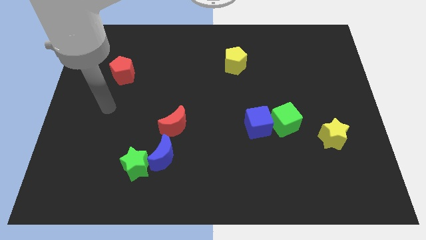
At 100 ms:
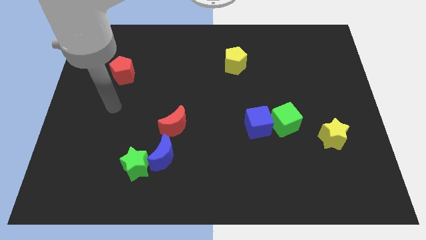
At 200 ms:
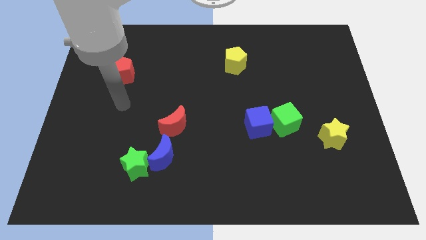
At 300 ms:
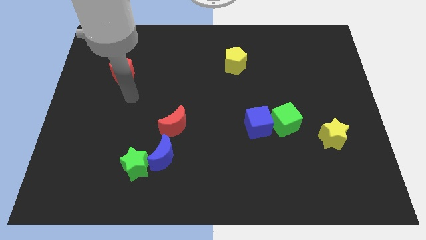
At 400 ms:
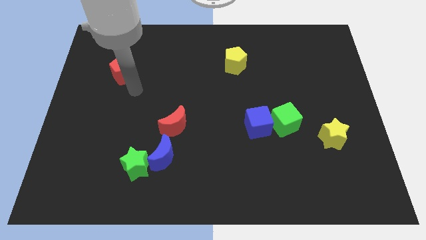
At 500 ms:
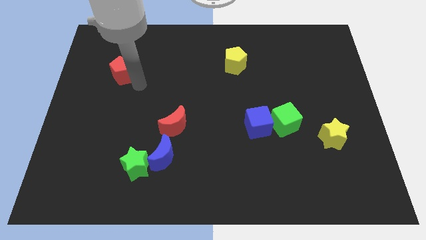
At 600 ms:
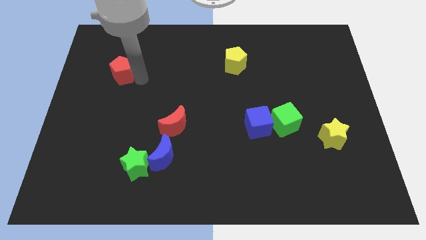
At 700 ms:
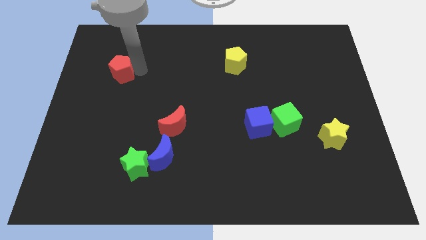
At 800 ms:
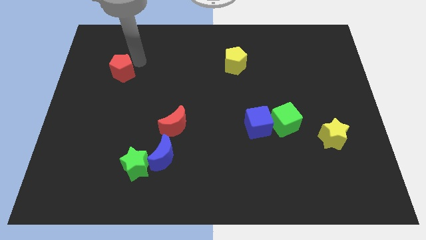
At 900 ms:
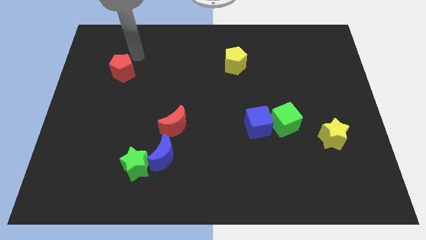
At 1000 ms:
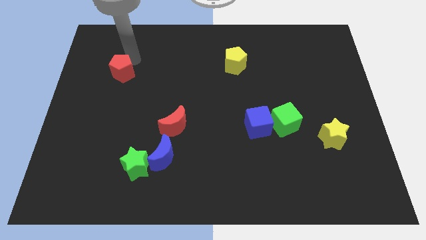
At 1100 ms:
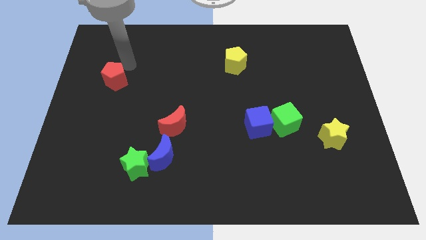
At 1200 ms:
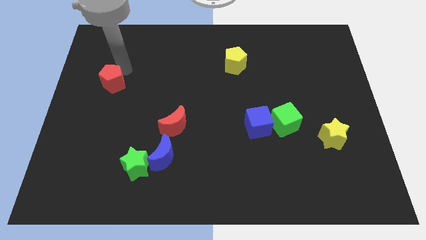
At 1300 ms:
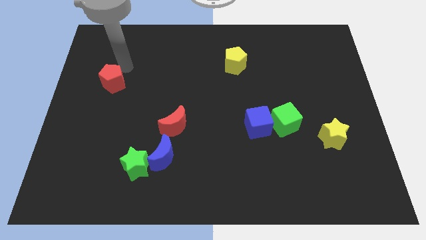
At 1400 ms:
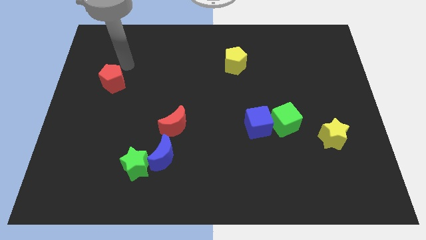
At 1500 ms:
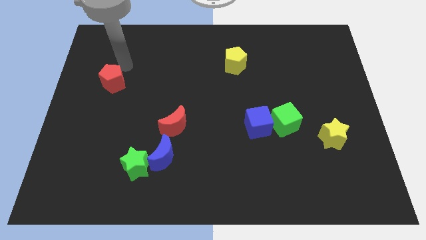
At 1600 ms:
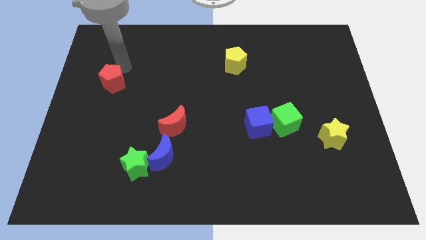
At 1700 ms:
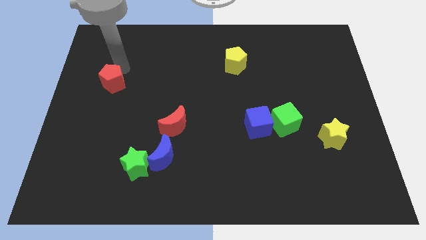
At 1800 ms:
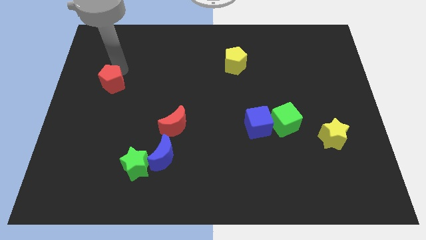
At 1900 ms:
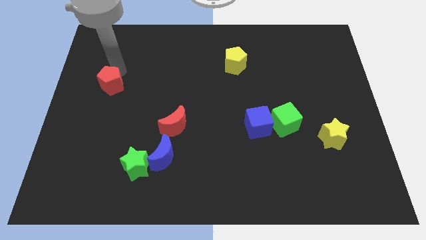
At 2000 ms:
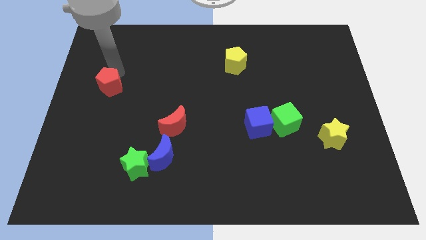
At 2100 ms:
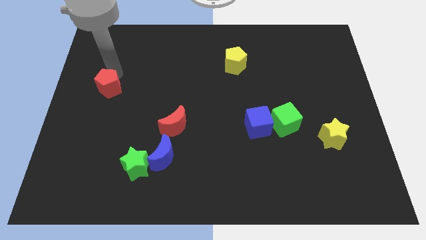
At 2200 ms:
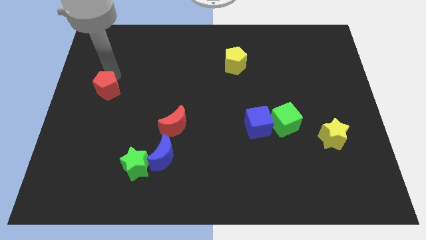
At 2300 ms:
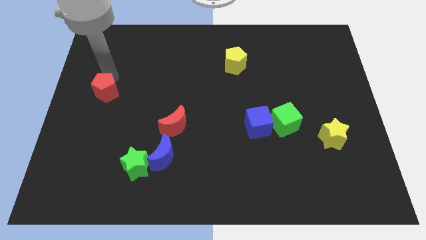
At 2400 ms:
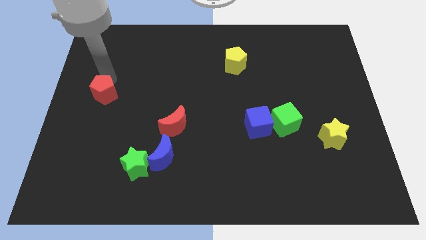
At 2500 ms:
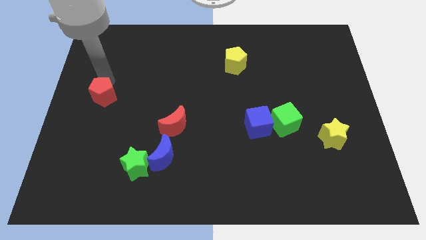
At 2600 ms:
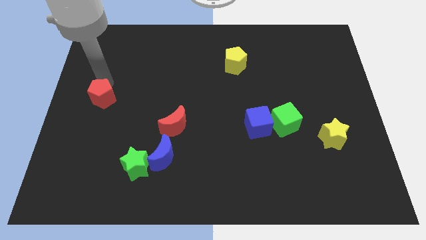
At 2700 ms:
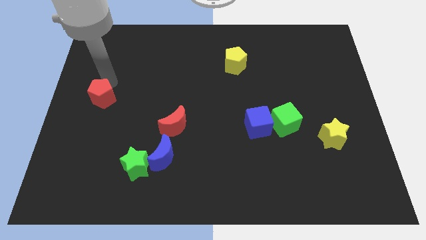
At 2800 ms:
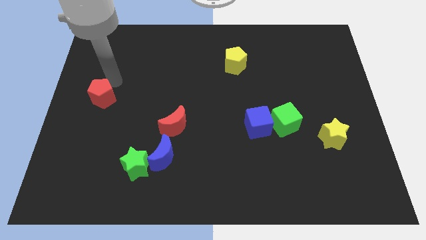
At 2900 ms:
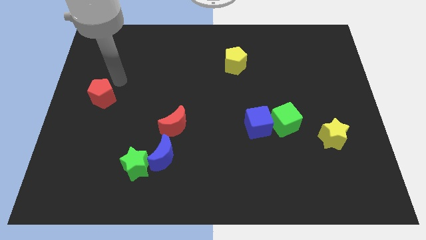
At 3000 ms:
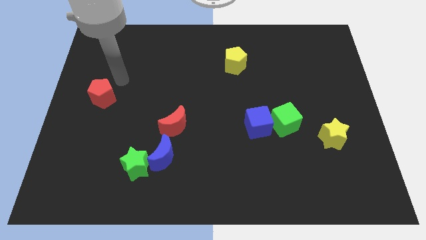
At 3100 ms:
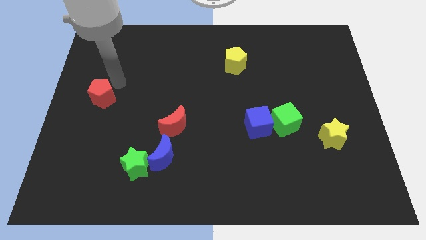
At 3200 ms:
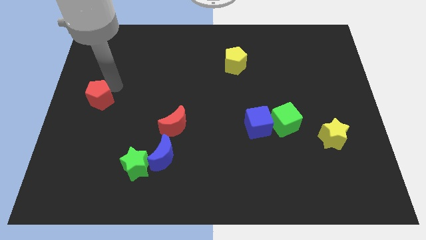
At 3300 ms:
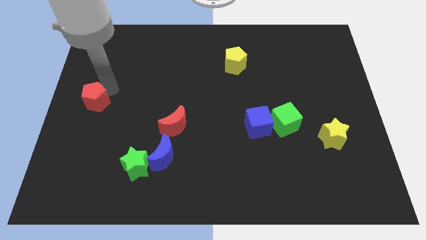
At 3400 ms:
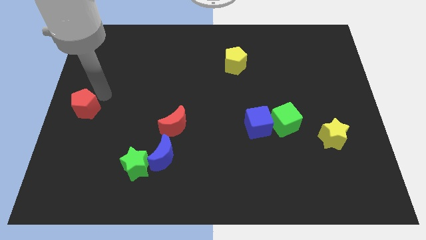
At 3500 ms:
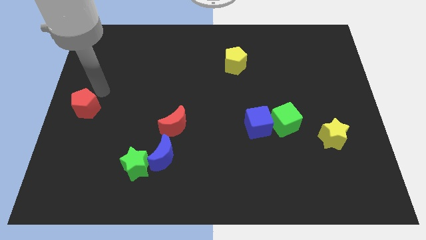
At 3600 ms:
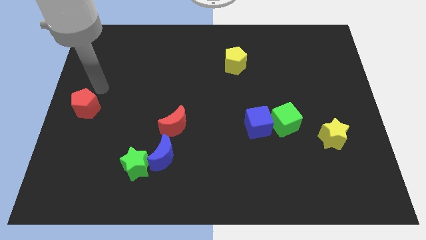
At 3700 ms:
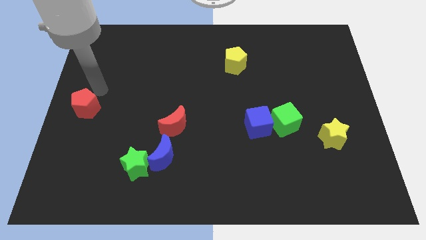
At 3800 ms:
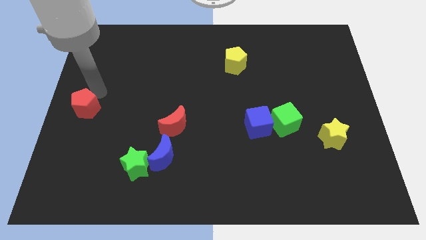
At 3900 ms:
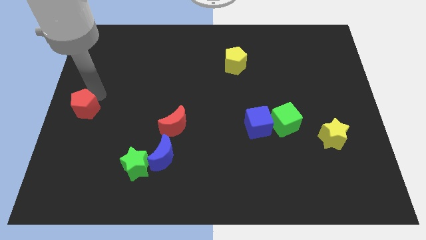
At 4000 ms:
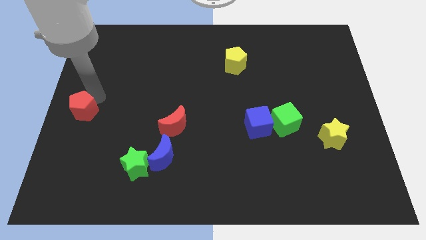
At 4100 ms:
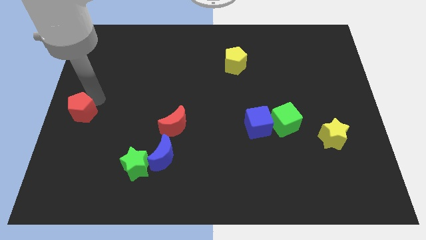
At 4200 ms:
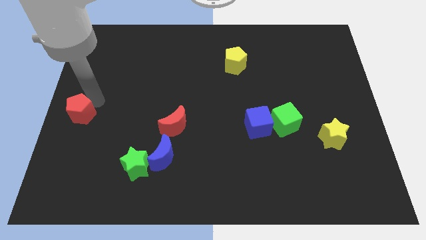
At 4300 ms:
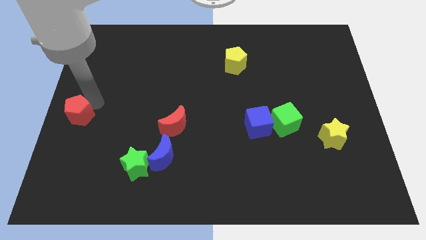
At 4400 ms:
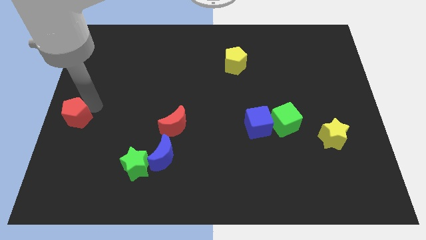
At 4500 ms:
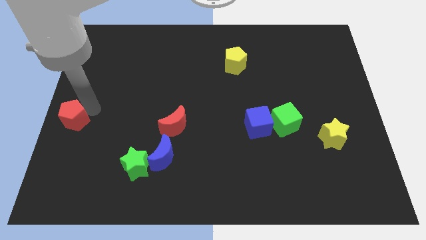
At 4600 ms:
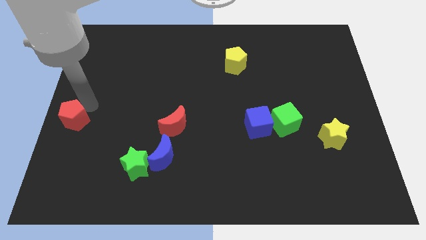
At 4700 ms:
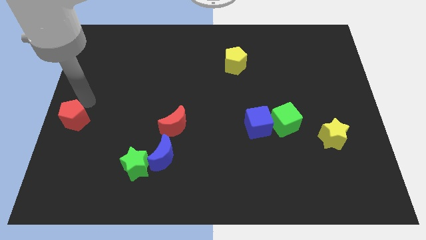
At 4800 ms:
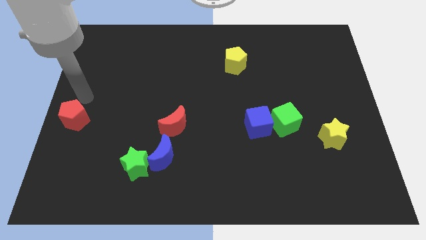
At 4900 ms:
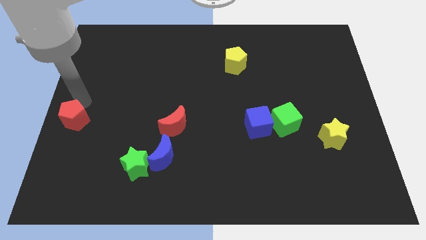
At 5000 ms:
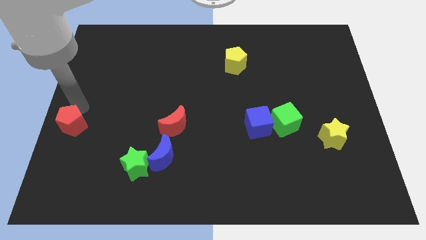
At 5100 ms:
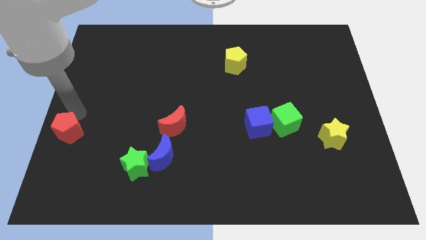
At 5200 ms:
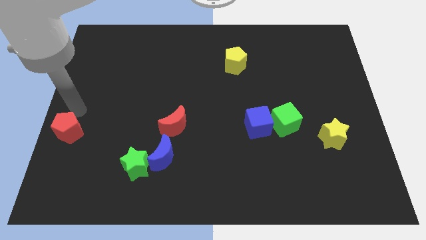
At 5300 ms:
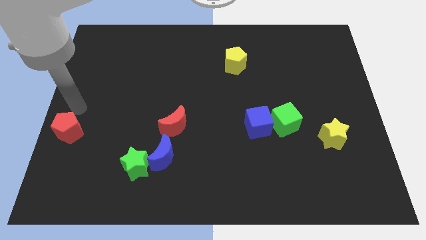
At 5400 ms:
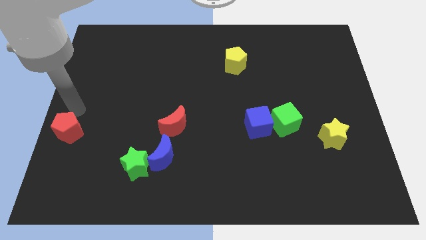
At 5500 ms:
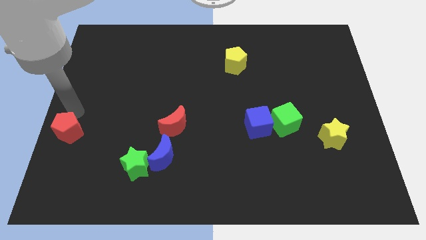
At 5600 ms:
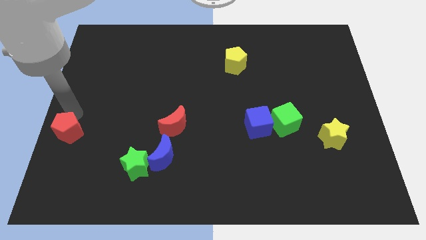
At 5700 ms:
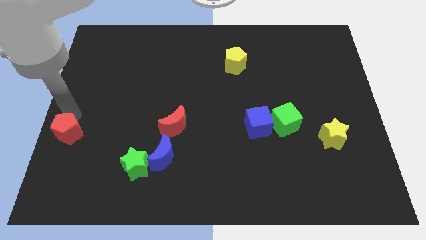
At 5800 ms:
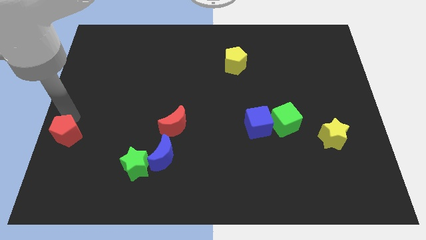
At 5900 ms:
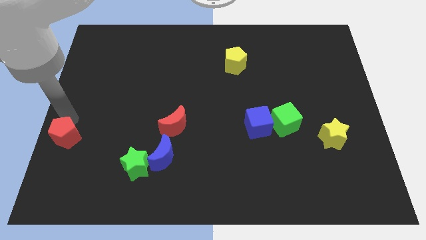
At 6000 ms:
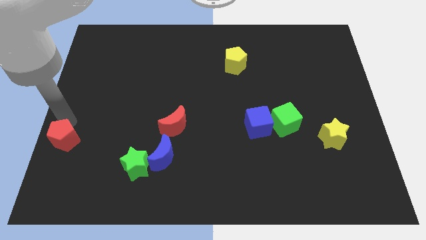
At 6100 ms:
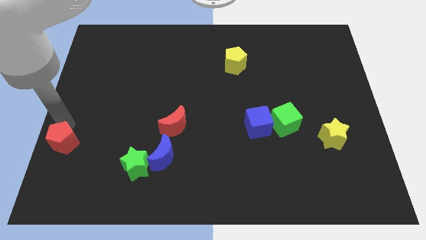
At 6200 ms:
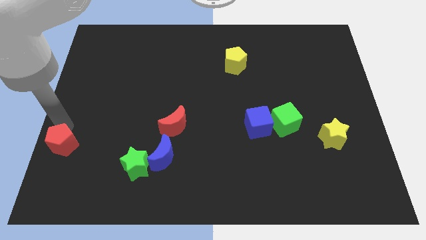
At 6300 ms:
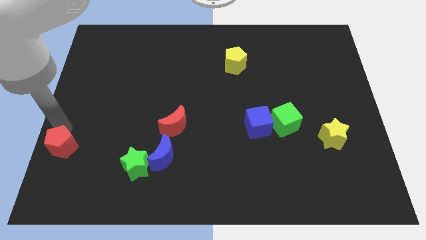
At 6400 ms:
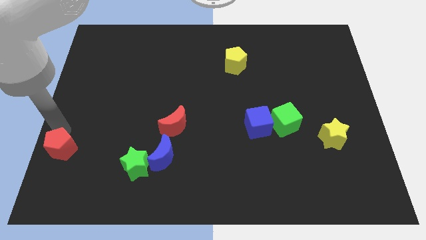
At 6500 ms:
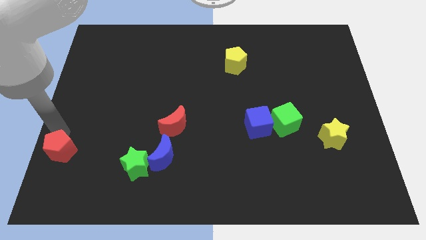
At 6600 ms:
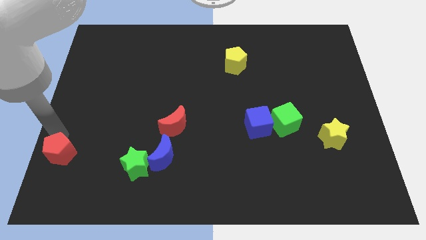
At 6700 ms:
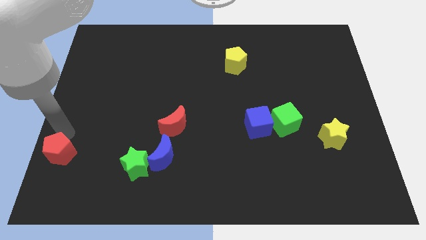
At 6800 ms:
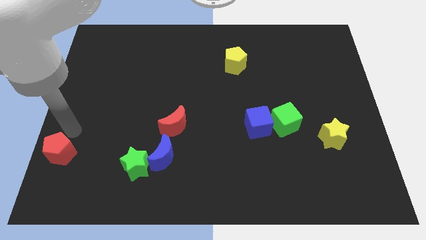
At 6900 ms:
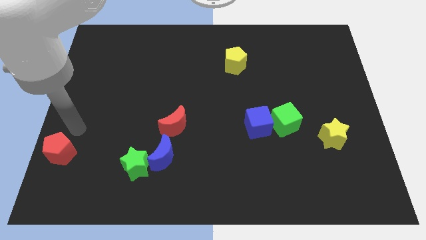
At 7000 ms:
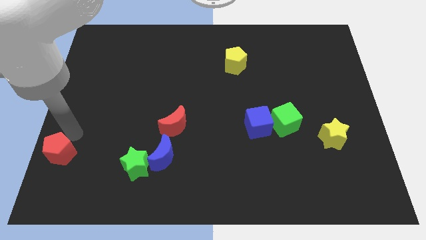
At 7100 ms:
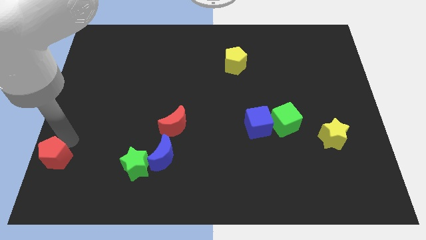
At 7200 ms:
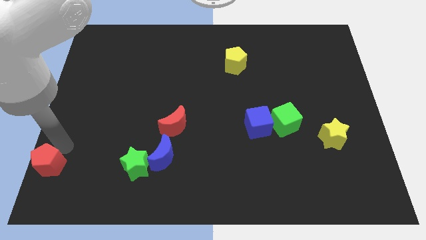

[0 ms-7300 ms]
move the red pentagon to the bottom left of the board
